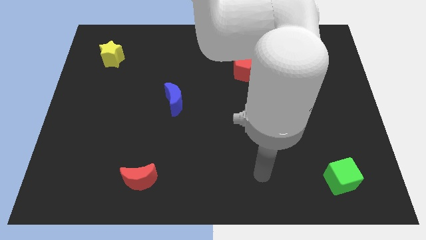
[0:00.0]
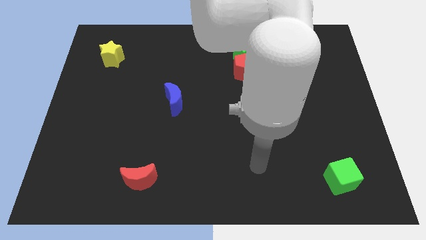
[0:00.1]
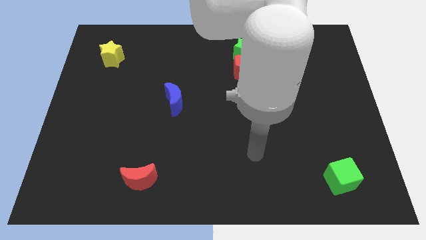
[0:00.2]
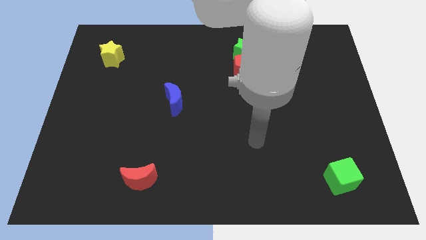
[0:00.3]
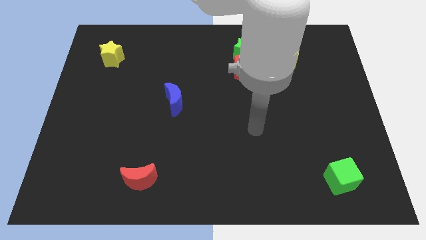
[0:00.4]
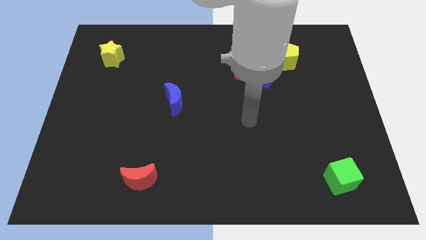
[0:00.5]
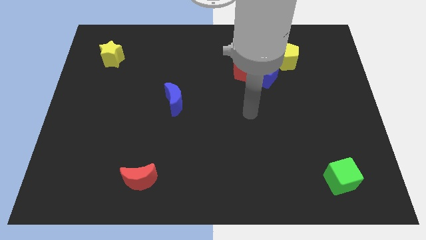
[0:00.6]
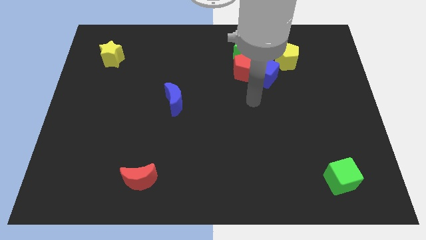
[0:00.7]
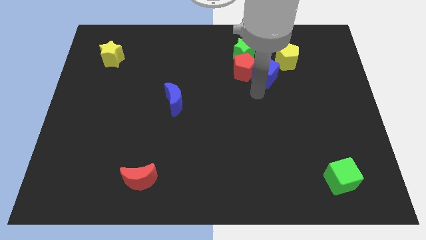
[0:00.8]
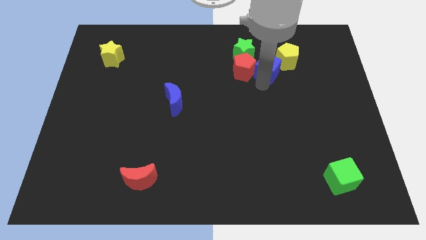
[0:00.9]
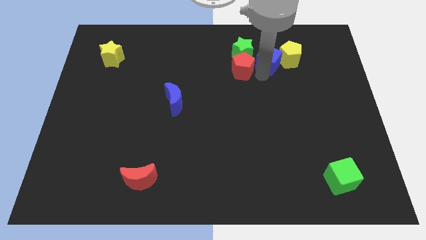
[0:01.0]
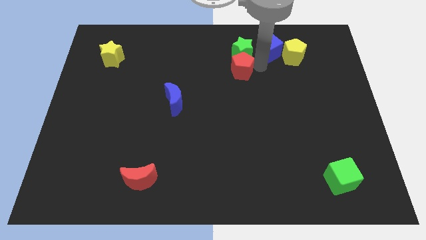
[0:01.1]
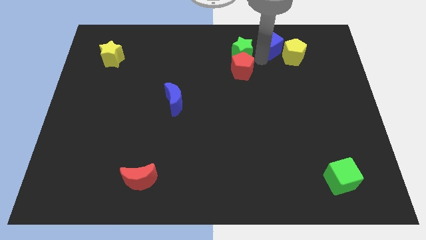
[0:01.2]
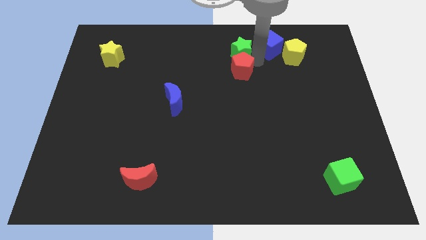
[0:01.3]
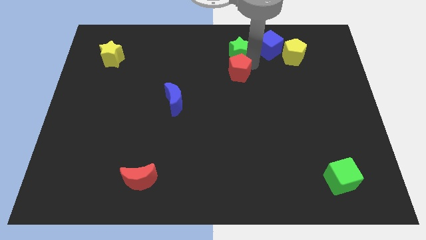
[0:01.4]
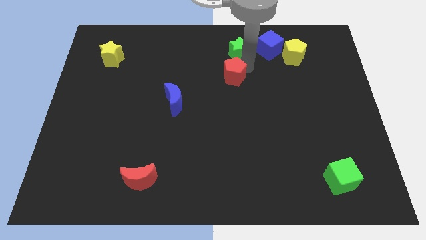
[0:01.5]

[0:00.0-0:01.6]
pull the red pentagon apart from the blue cube and green star

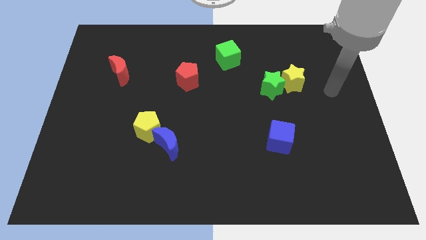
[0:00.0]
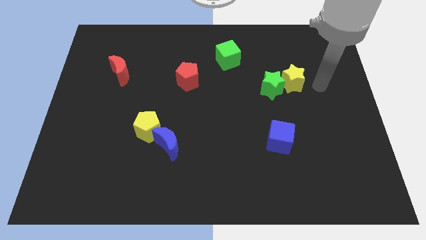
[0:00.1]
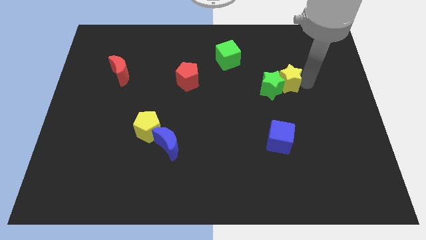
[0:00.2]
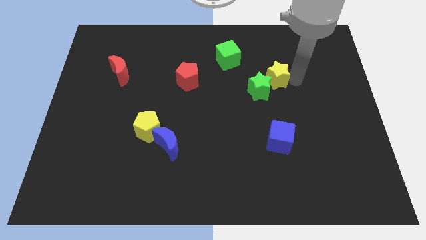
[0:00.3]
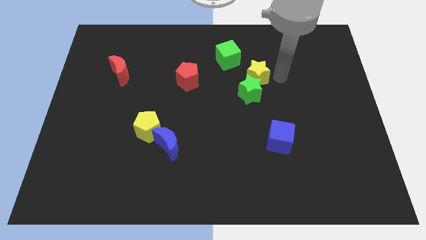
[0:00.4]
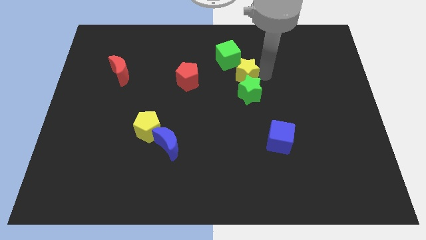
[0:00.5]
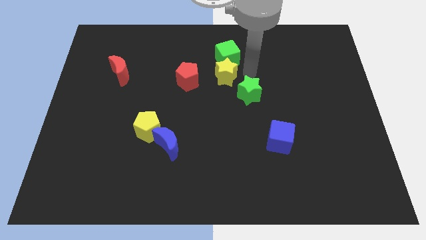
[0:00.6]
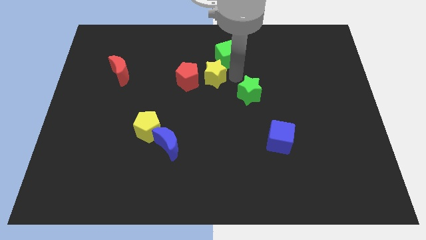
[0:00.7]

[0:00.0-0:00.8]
separate the green star from the yellow star

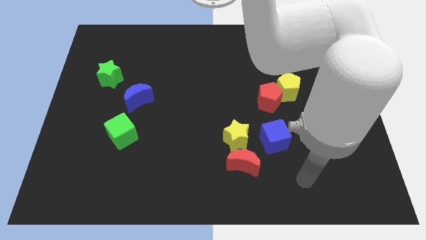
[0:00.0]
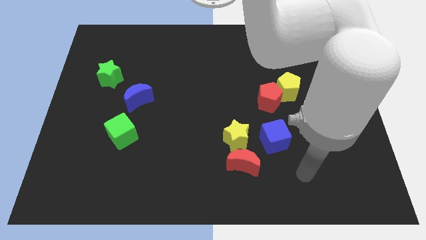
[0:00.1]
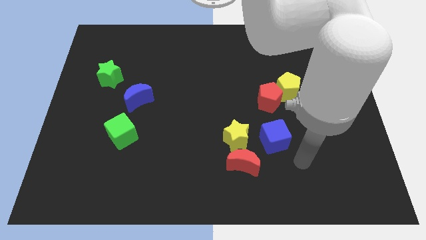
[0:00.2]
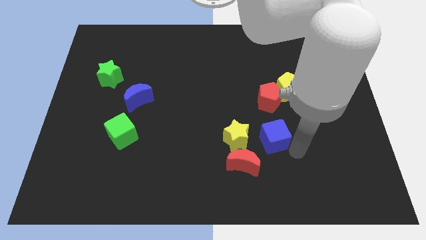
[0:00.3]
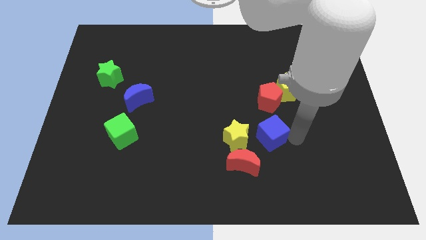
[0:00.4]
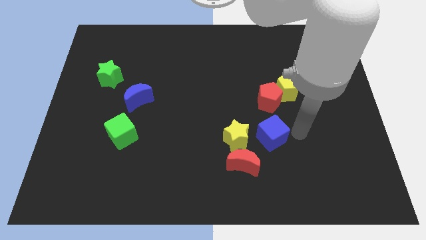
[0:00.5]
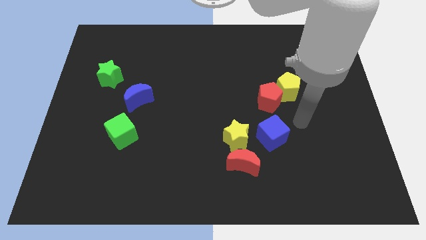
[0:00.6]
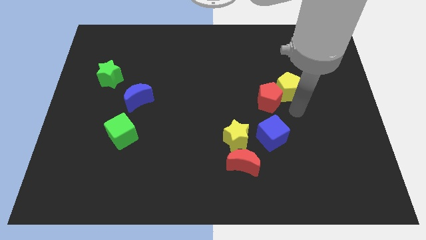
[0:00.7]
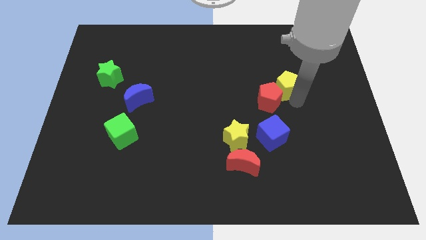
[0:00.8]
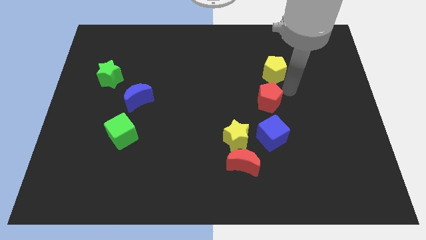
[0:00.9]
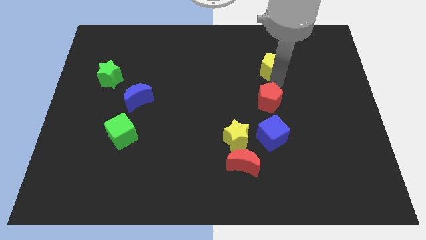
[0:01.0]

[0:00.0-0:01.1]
move the red pentagon away from the yellow pentagon

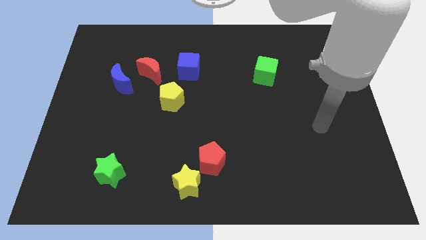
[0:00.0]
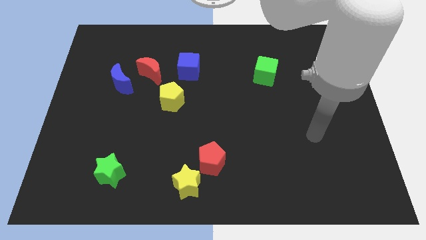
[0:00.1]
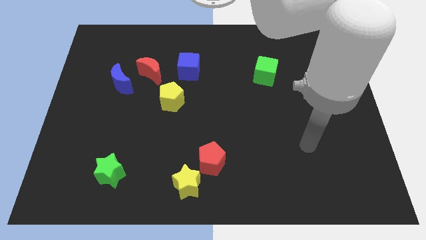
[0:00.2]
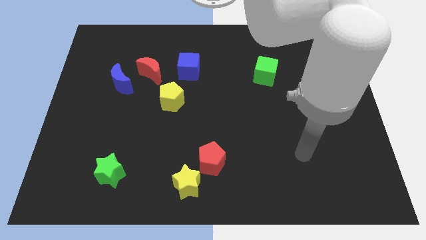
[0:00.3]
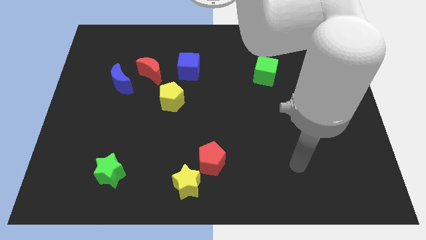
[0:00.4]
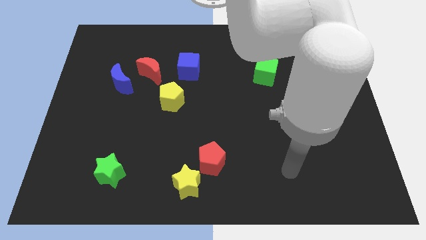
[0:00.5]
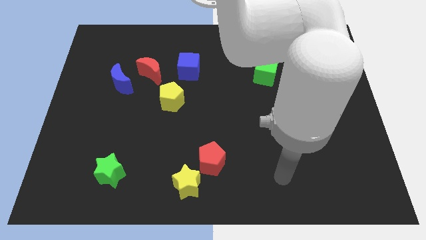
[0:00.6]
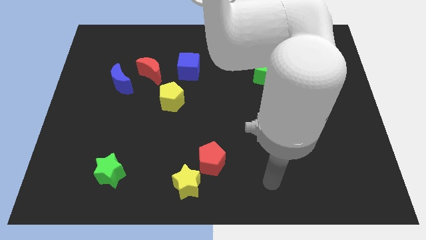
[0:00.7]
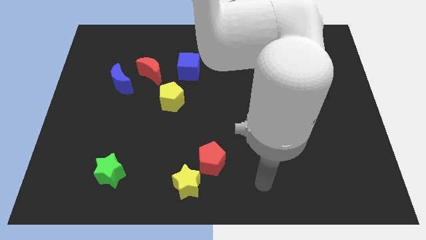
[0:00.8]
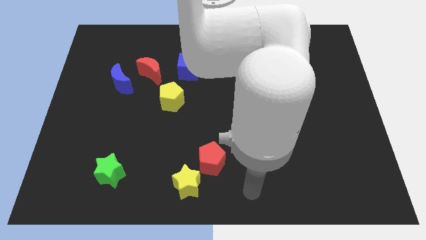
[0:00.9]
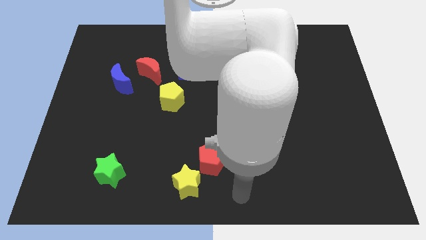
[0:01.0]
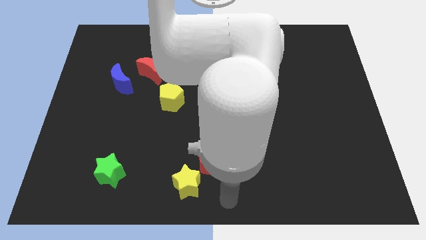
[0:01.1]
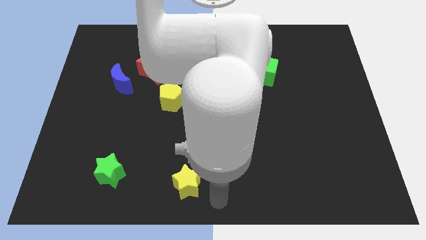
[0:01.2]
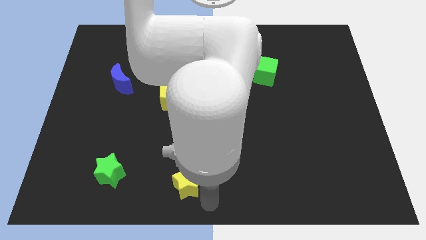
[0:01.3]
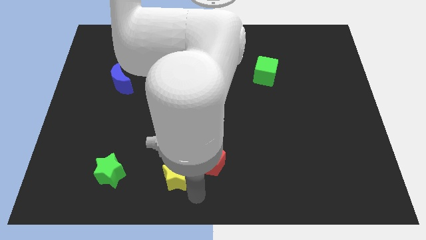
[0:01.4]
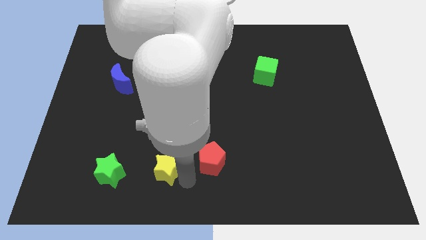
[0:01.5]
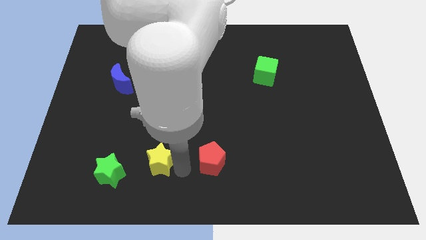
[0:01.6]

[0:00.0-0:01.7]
move the red pentagon away from the yellow star

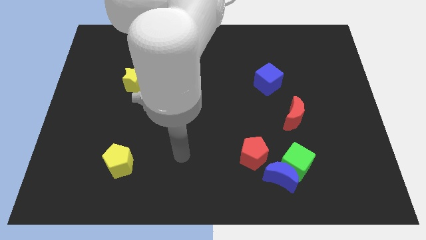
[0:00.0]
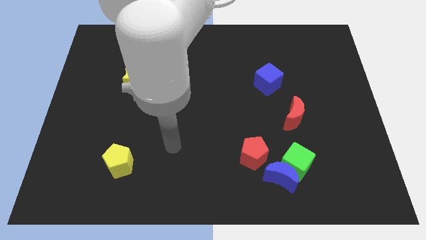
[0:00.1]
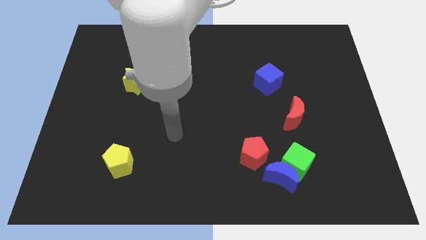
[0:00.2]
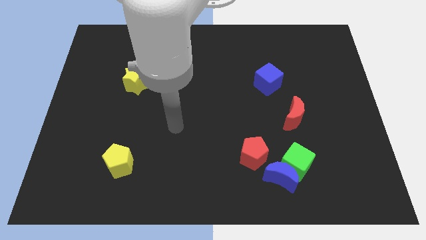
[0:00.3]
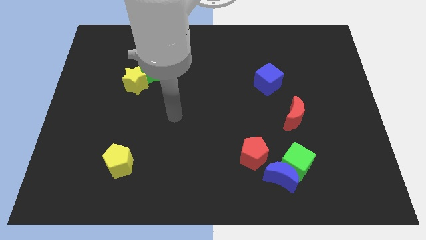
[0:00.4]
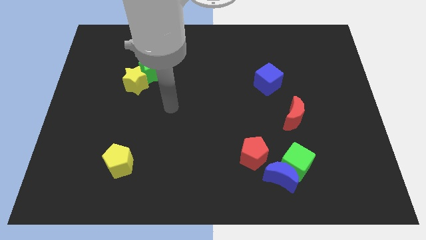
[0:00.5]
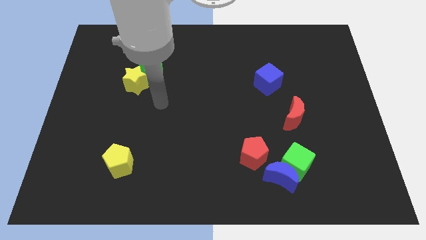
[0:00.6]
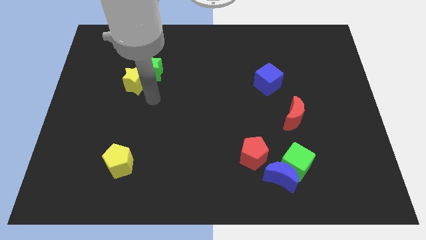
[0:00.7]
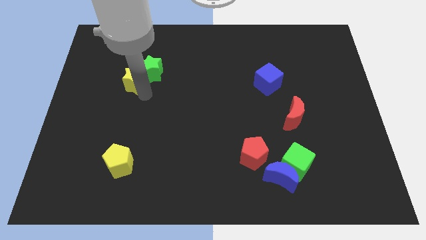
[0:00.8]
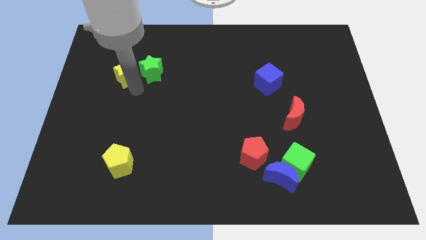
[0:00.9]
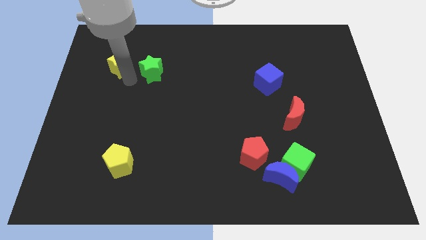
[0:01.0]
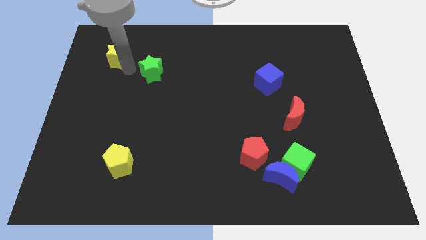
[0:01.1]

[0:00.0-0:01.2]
pull the green star apart from the yellow star

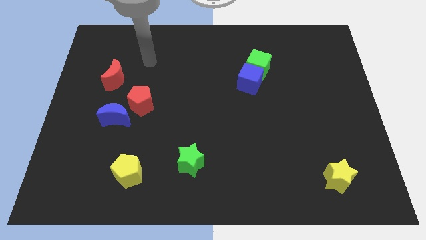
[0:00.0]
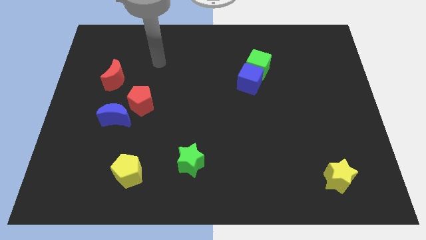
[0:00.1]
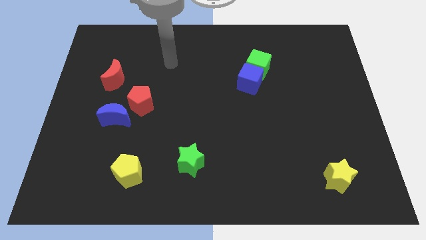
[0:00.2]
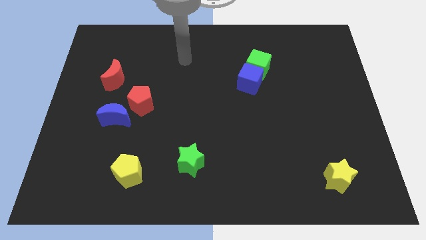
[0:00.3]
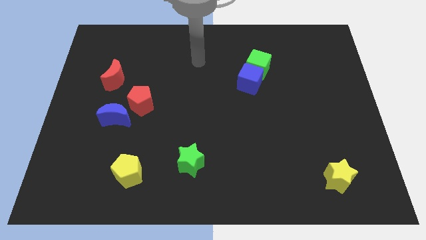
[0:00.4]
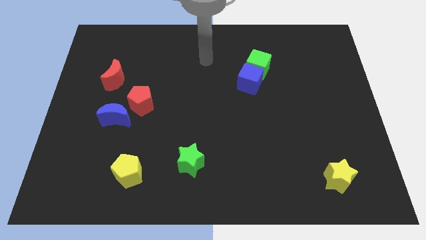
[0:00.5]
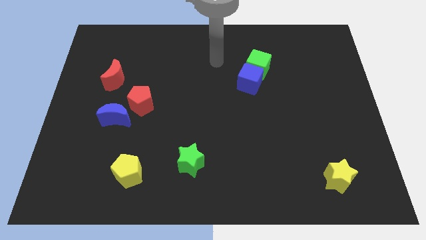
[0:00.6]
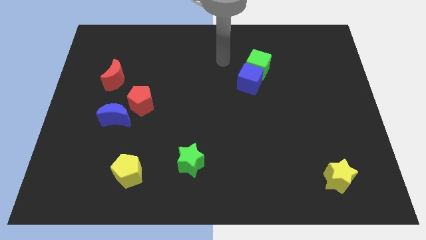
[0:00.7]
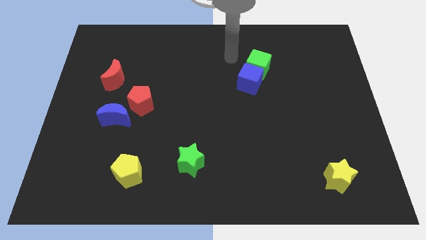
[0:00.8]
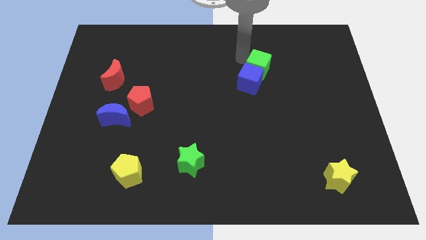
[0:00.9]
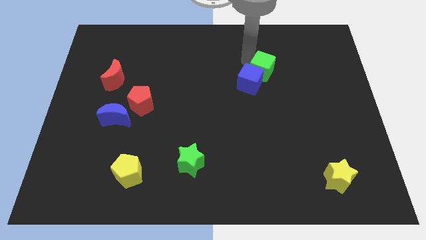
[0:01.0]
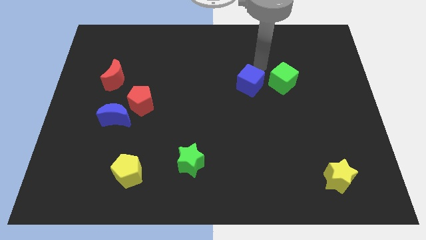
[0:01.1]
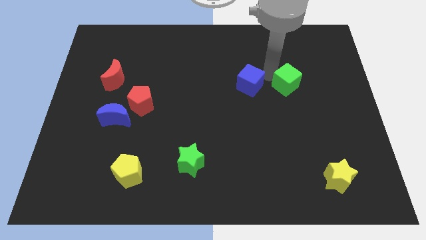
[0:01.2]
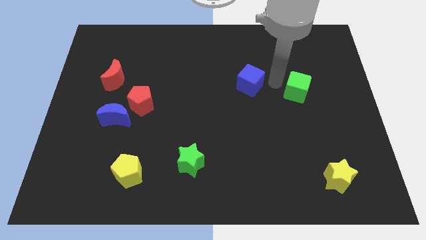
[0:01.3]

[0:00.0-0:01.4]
pull the blue cube apart from the green cube

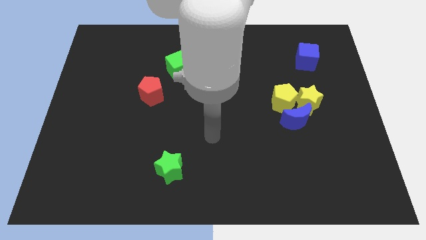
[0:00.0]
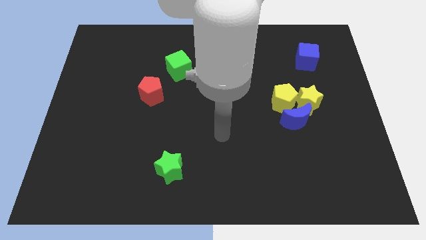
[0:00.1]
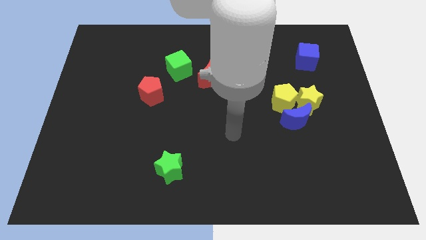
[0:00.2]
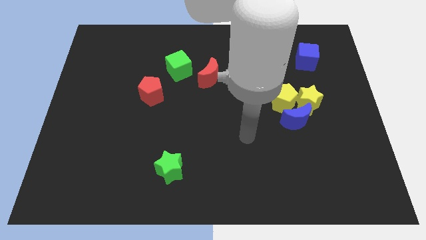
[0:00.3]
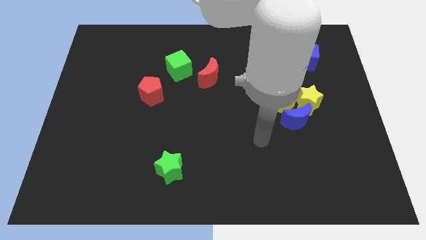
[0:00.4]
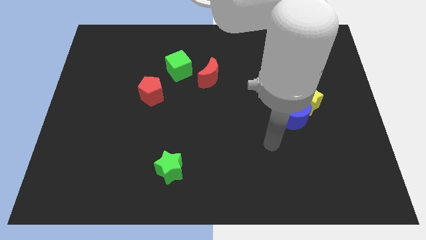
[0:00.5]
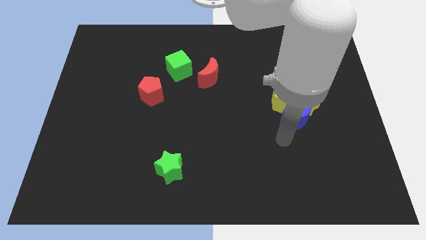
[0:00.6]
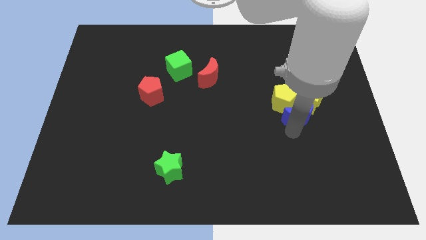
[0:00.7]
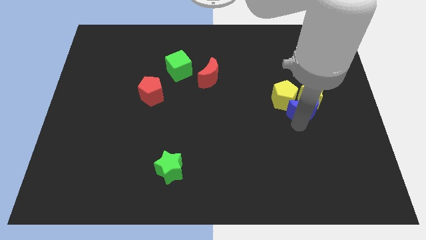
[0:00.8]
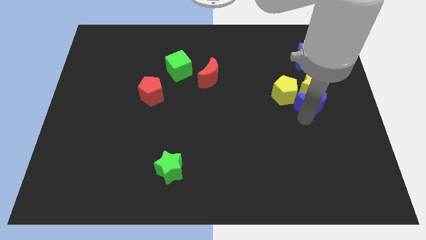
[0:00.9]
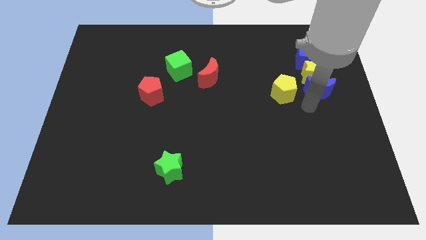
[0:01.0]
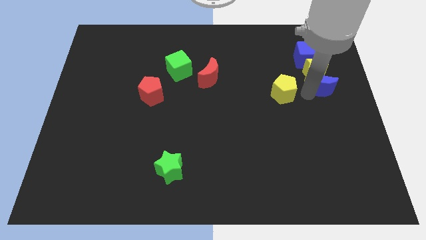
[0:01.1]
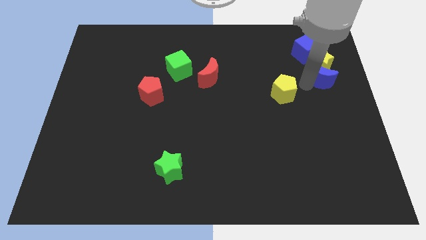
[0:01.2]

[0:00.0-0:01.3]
pull the yellow pentagon apart from the yellow star and blue moon
